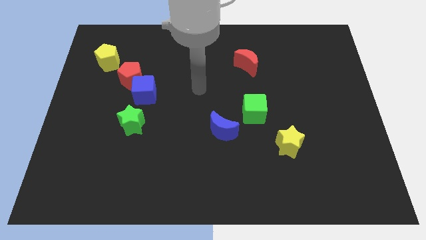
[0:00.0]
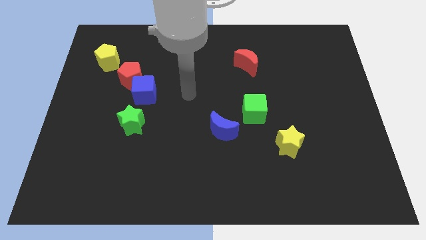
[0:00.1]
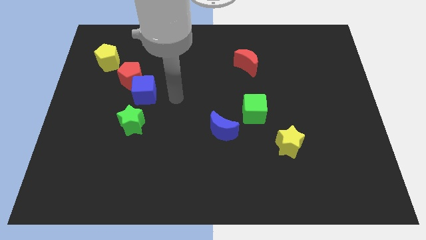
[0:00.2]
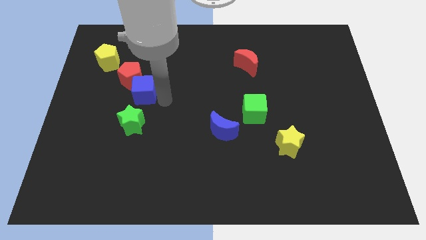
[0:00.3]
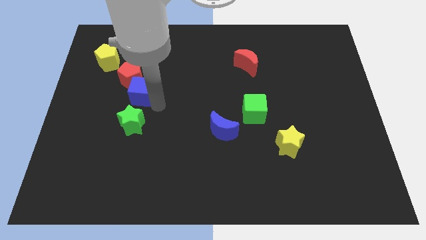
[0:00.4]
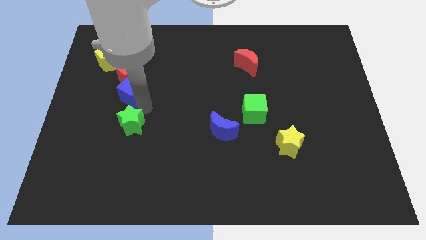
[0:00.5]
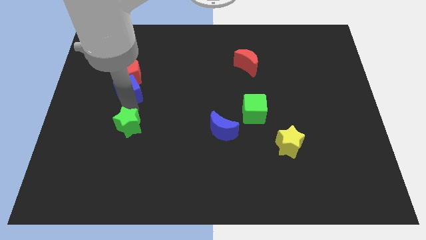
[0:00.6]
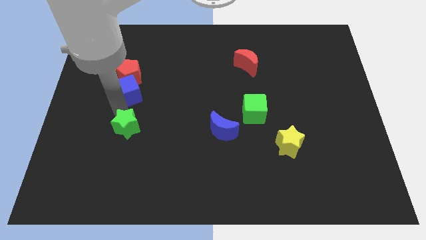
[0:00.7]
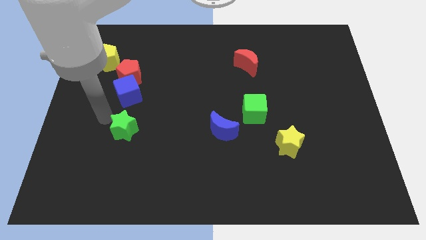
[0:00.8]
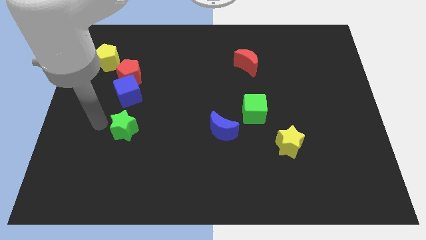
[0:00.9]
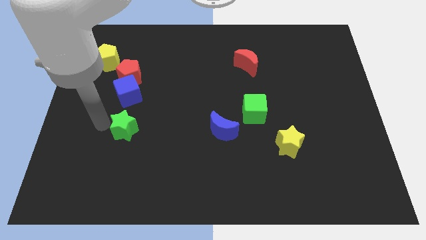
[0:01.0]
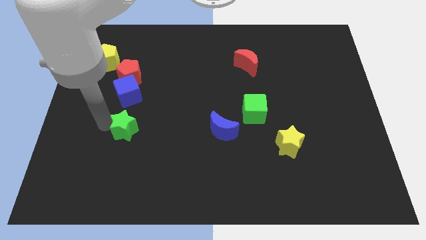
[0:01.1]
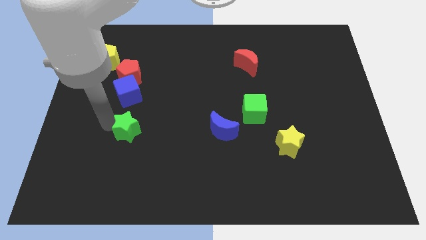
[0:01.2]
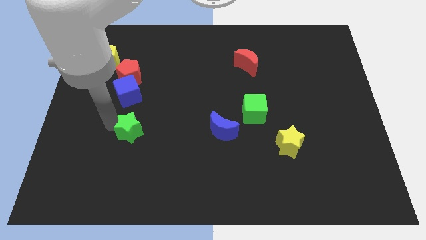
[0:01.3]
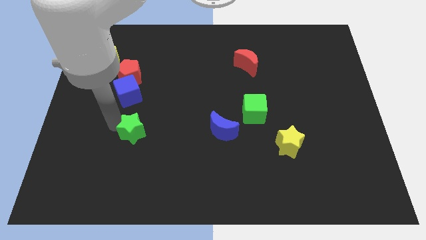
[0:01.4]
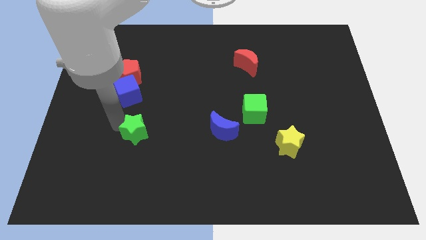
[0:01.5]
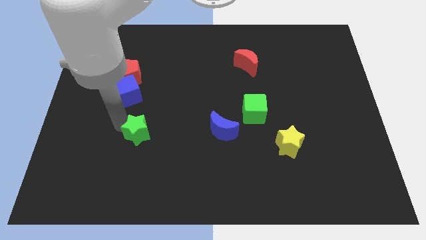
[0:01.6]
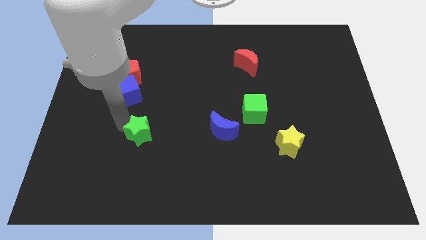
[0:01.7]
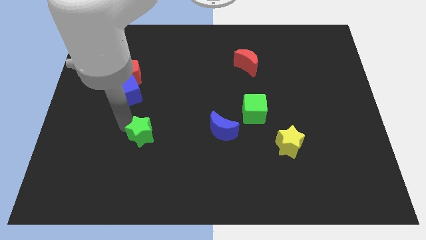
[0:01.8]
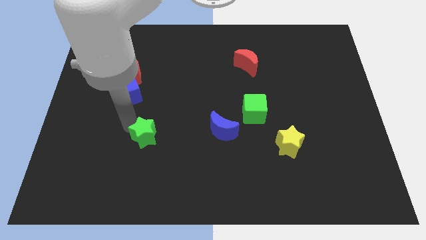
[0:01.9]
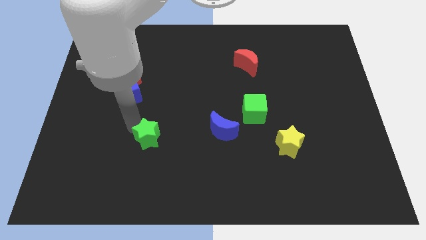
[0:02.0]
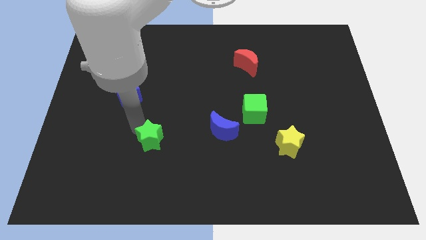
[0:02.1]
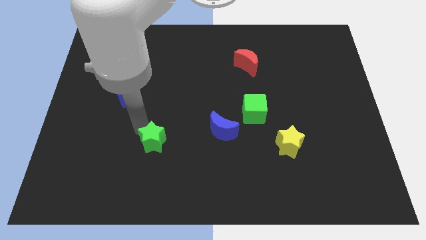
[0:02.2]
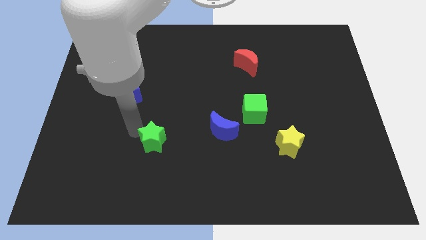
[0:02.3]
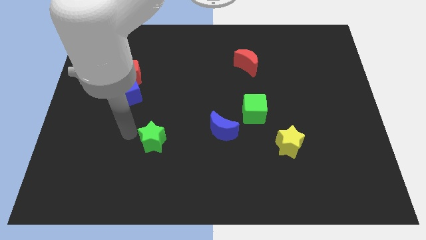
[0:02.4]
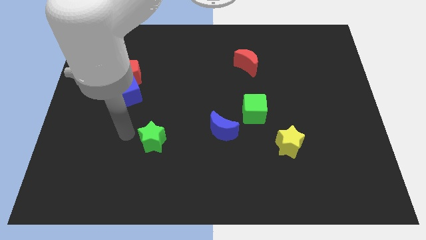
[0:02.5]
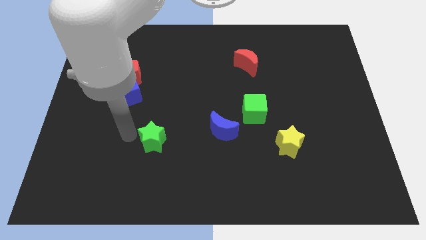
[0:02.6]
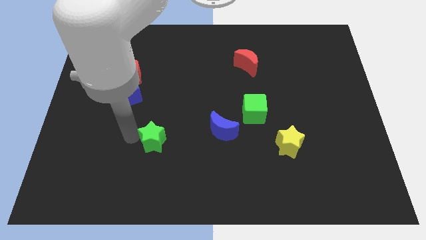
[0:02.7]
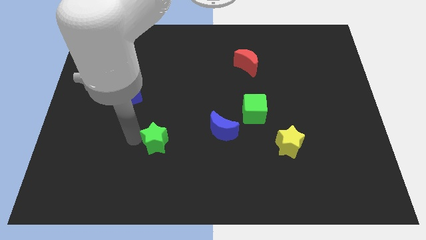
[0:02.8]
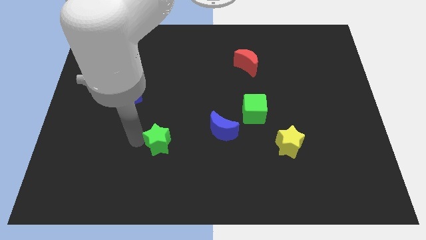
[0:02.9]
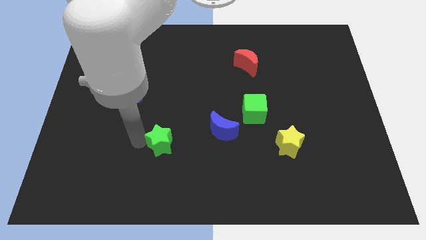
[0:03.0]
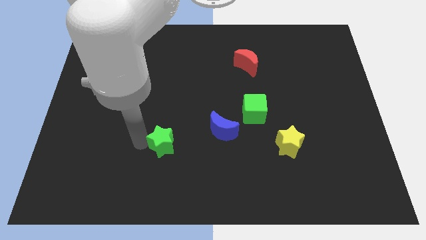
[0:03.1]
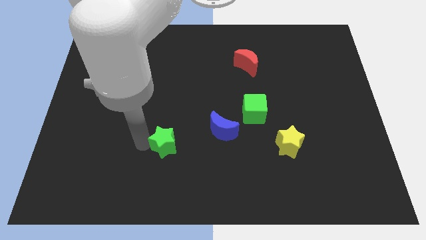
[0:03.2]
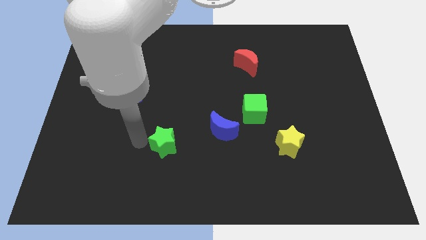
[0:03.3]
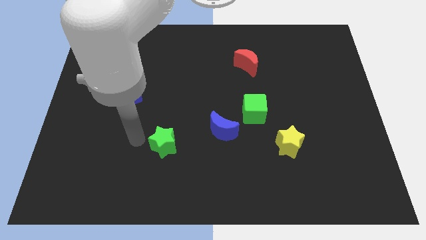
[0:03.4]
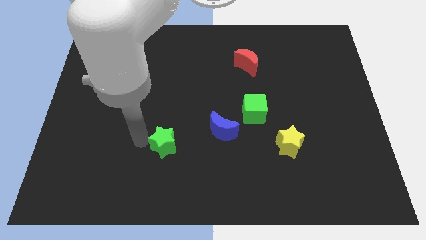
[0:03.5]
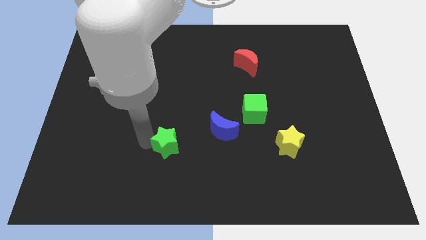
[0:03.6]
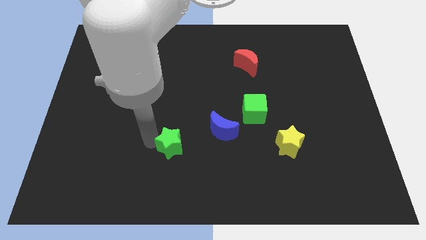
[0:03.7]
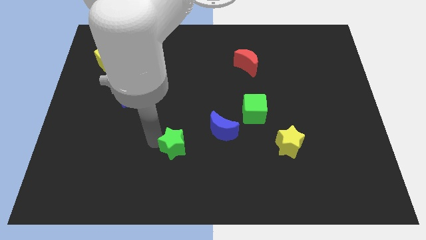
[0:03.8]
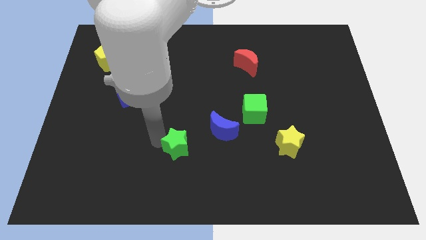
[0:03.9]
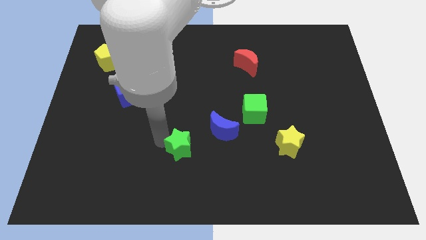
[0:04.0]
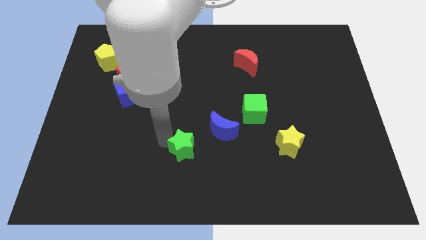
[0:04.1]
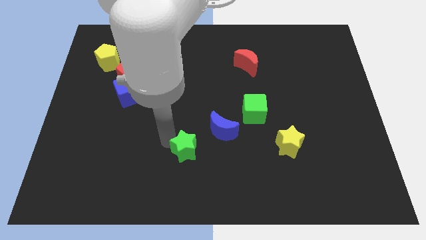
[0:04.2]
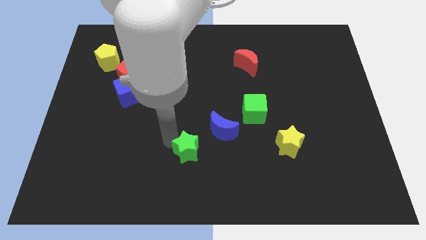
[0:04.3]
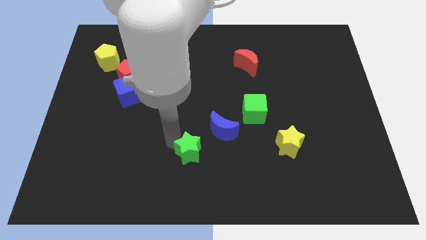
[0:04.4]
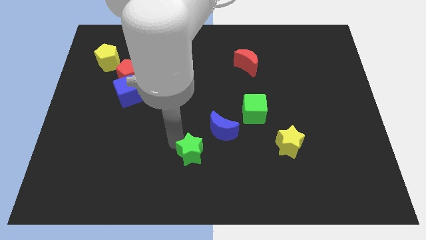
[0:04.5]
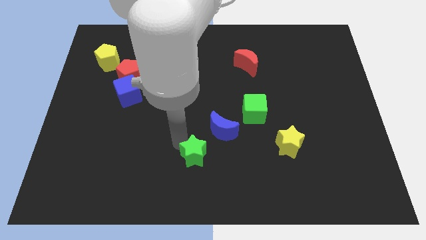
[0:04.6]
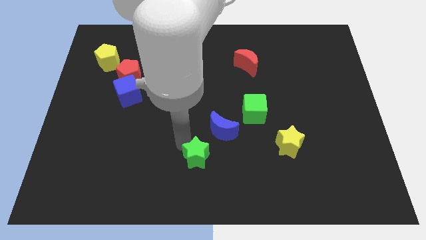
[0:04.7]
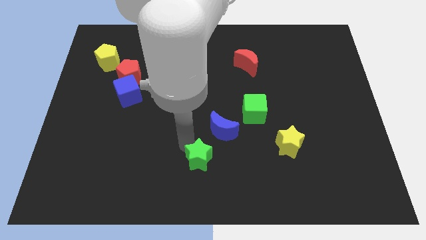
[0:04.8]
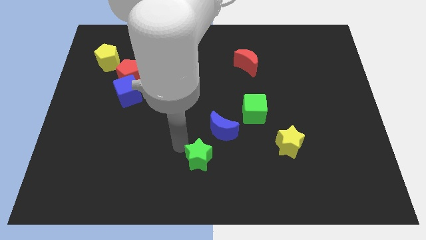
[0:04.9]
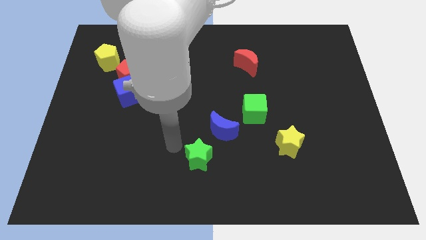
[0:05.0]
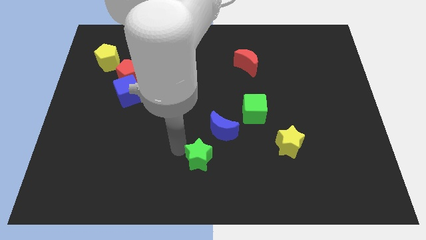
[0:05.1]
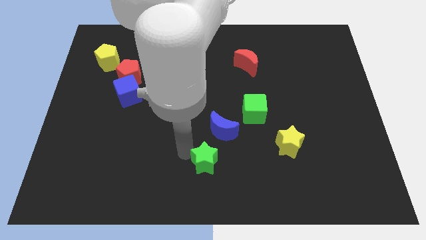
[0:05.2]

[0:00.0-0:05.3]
slide the green star to the bottom side of the blue moon

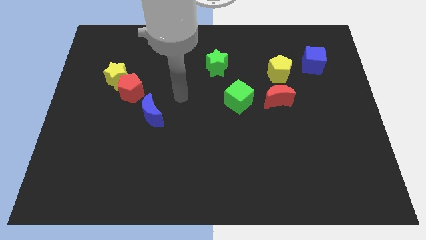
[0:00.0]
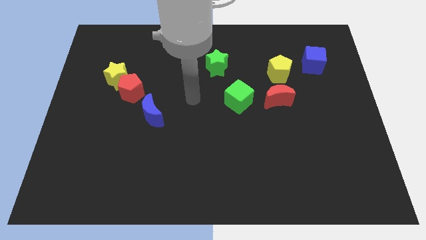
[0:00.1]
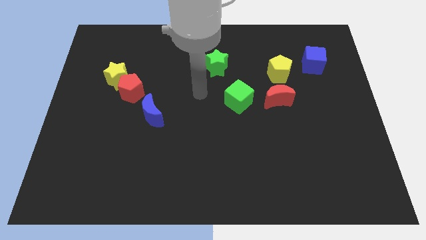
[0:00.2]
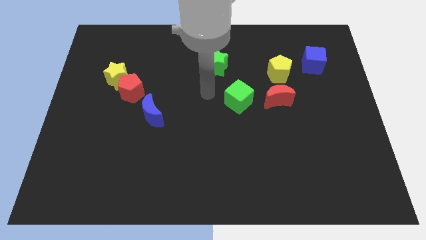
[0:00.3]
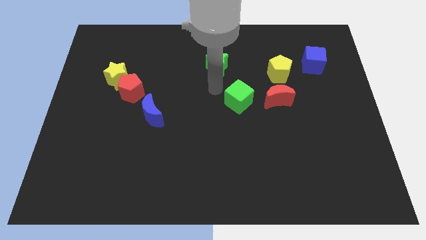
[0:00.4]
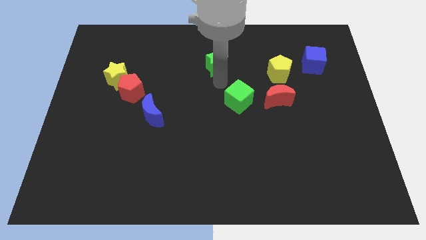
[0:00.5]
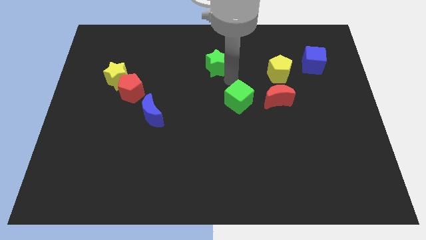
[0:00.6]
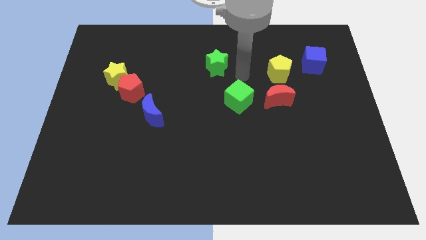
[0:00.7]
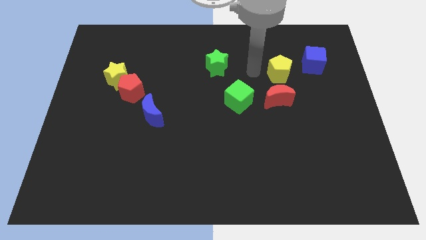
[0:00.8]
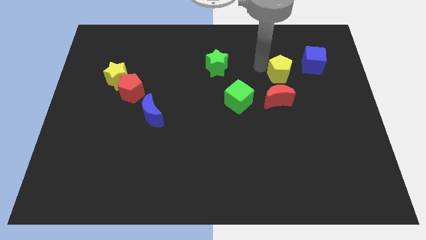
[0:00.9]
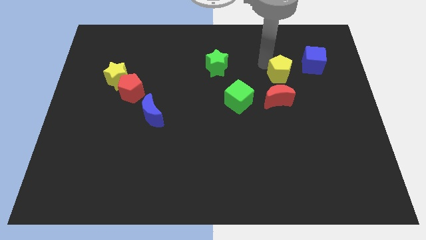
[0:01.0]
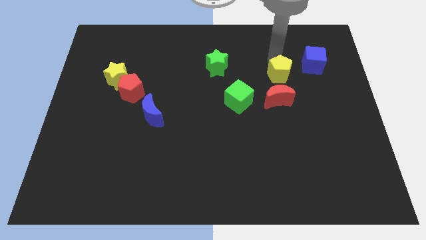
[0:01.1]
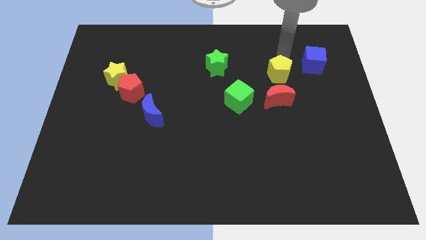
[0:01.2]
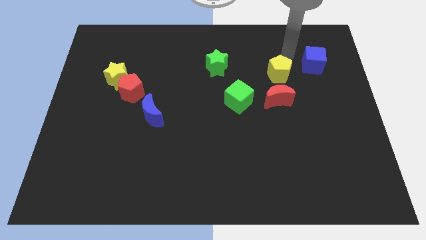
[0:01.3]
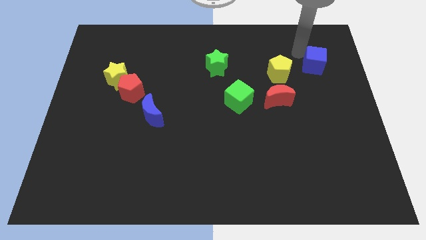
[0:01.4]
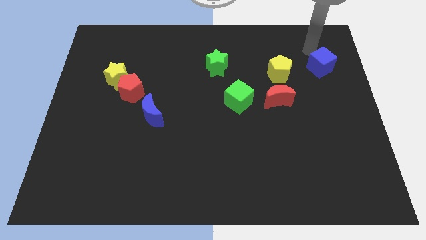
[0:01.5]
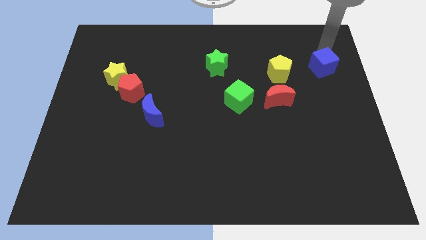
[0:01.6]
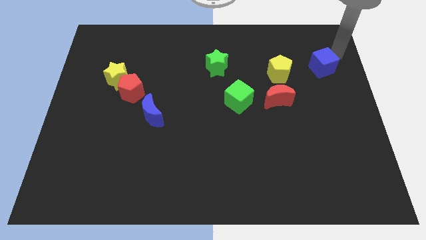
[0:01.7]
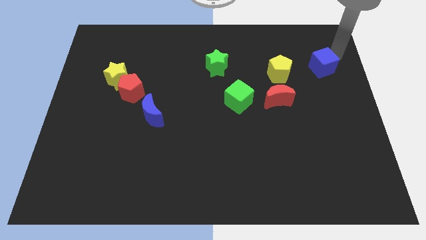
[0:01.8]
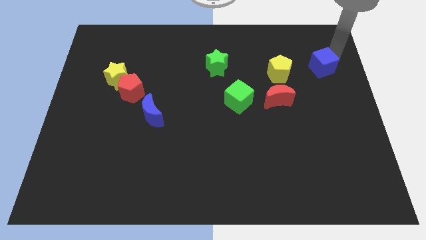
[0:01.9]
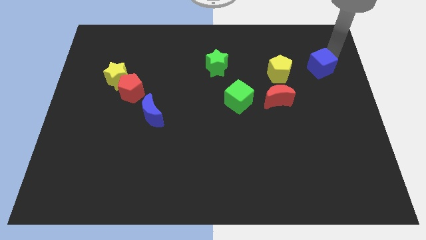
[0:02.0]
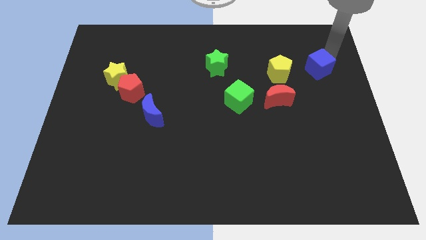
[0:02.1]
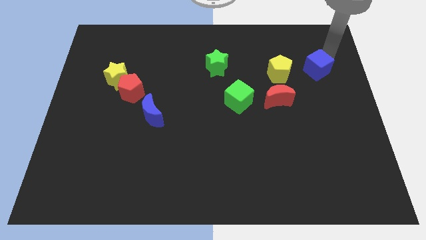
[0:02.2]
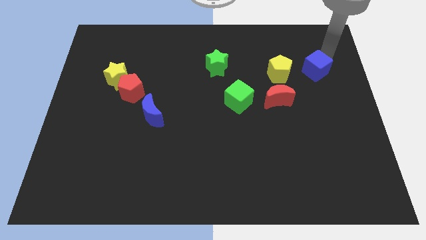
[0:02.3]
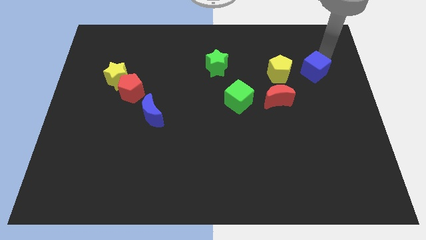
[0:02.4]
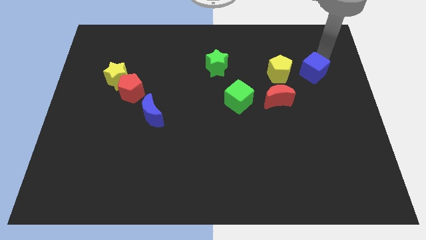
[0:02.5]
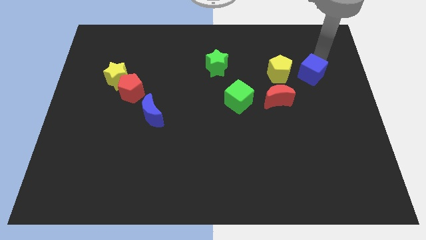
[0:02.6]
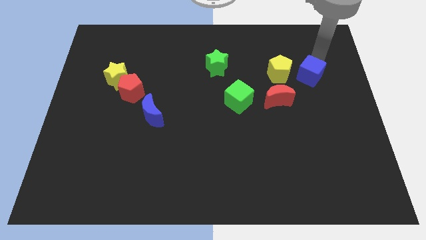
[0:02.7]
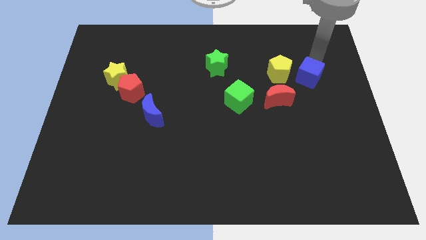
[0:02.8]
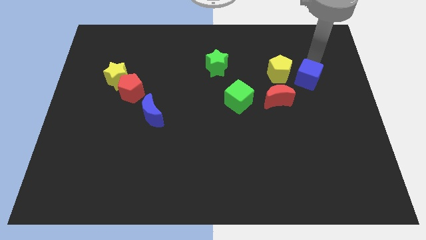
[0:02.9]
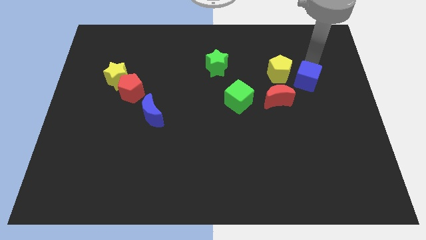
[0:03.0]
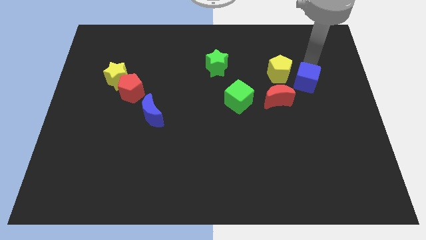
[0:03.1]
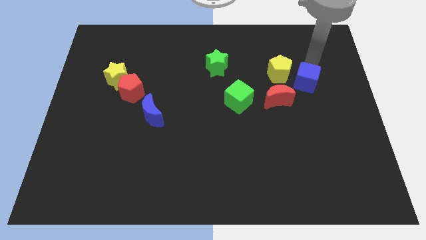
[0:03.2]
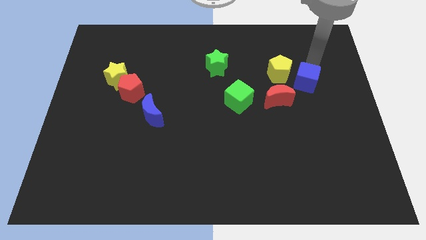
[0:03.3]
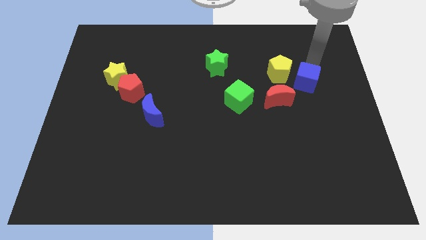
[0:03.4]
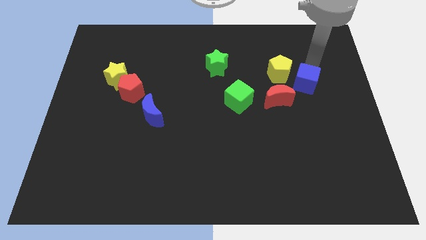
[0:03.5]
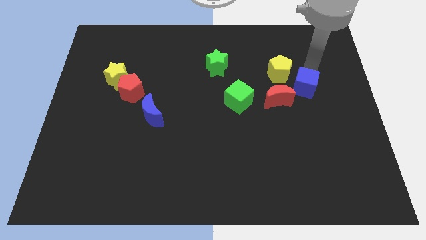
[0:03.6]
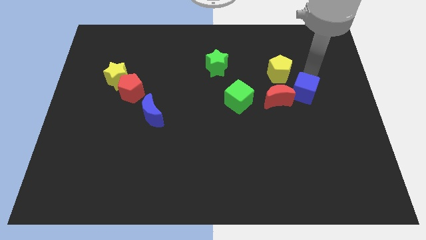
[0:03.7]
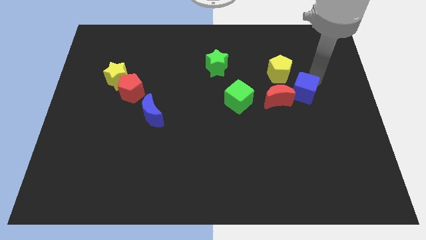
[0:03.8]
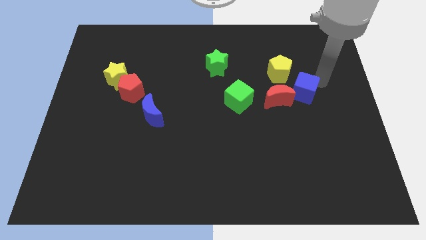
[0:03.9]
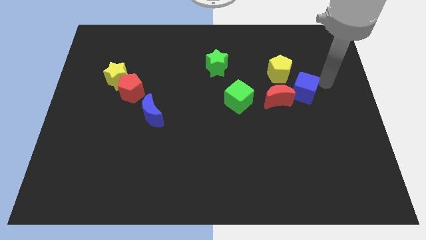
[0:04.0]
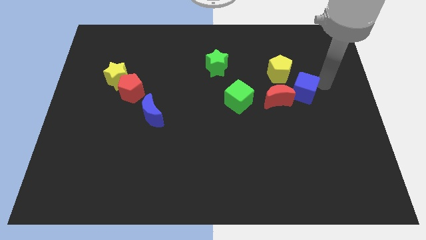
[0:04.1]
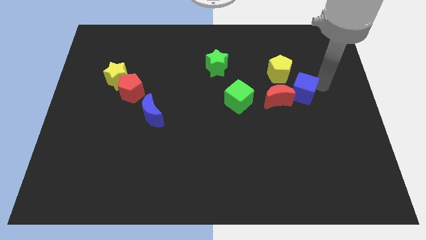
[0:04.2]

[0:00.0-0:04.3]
push the blue cube right of the green cube
